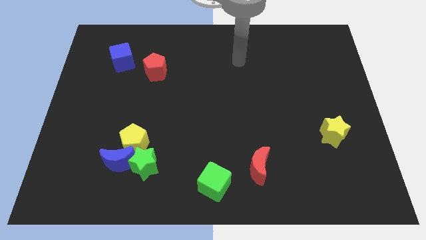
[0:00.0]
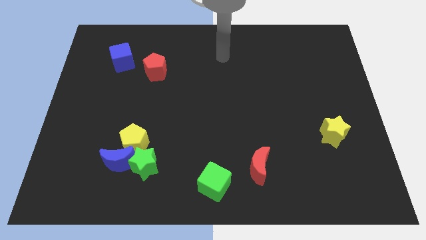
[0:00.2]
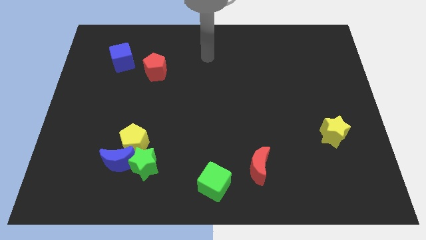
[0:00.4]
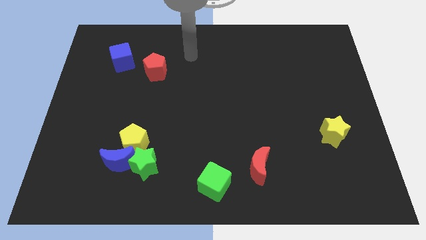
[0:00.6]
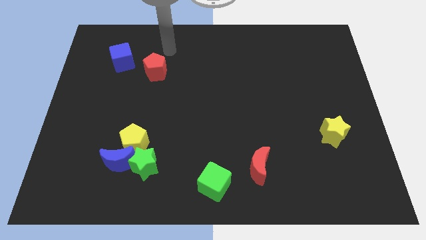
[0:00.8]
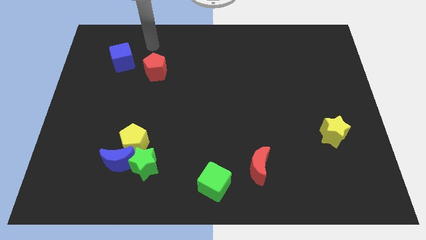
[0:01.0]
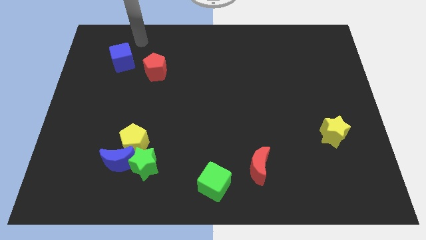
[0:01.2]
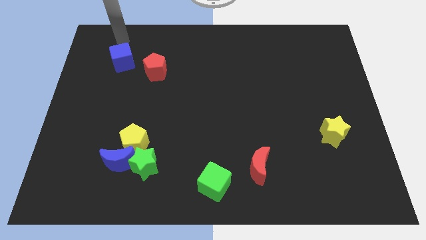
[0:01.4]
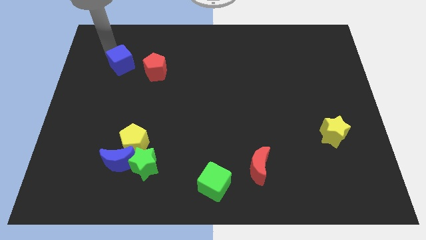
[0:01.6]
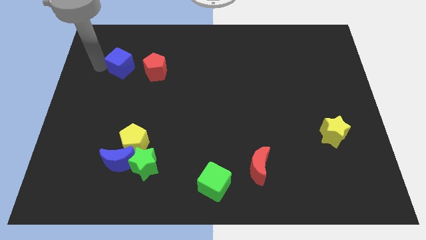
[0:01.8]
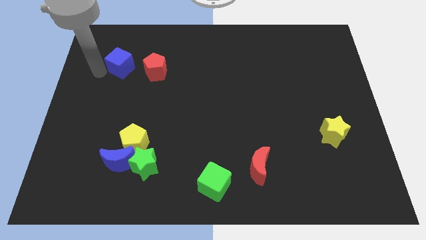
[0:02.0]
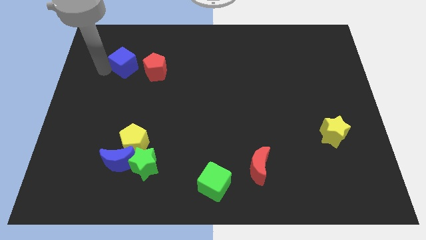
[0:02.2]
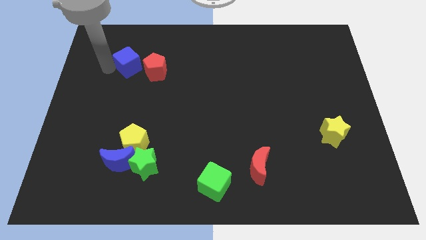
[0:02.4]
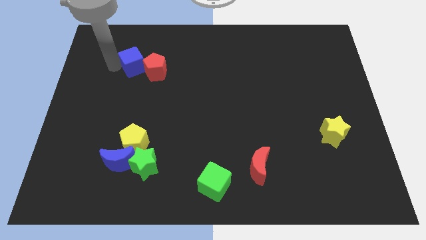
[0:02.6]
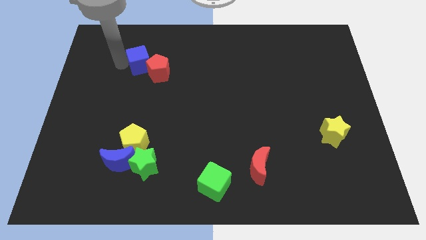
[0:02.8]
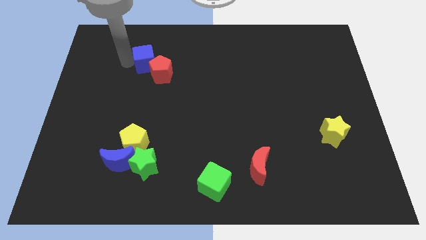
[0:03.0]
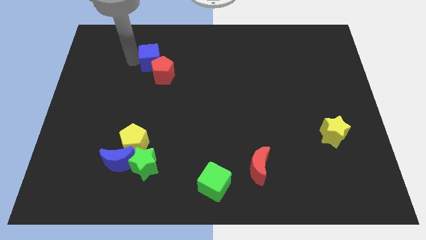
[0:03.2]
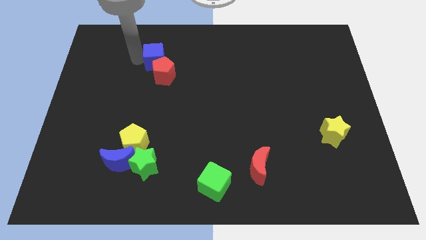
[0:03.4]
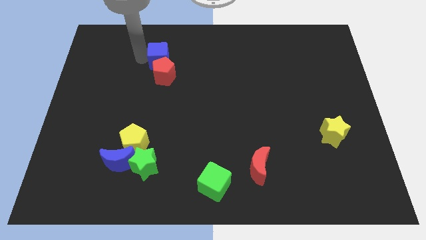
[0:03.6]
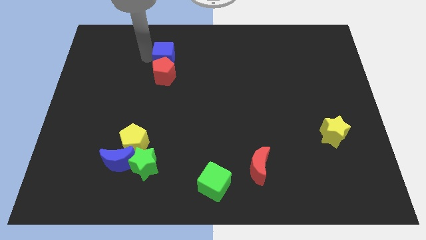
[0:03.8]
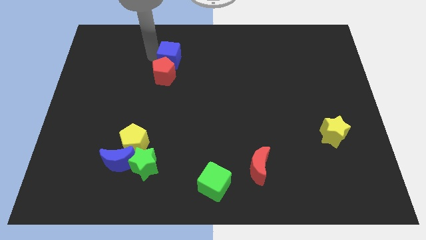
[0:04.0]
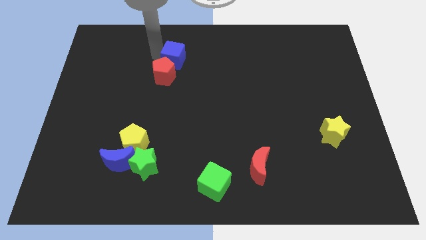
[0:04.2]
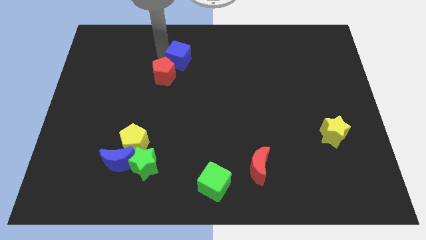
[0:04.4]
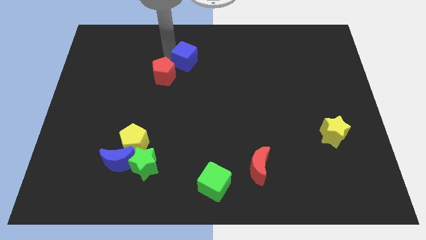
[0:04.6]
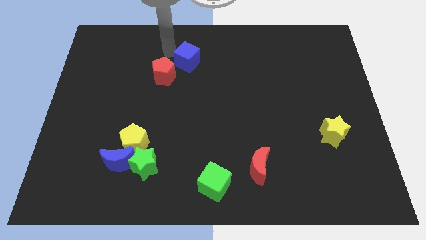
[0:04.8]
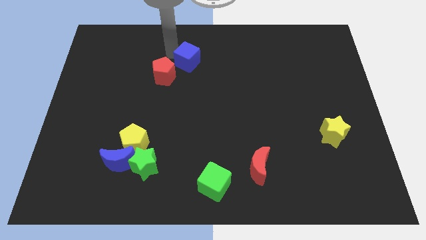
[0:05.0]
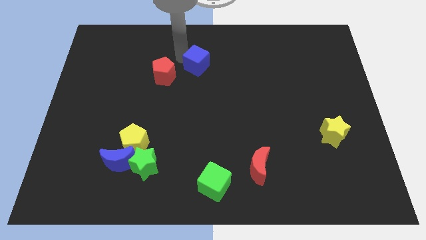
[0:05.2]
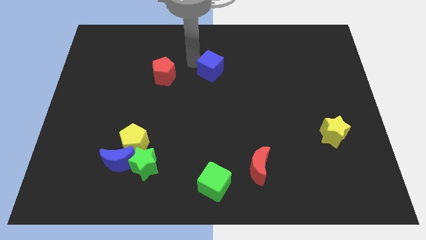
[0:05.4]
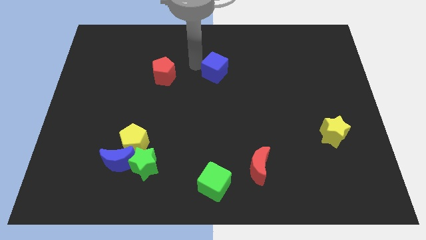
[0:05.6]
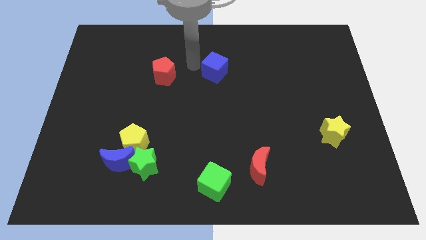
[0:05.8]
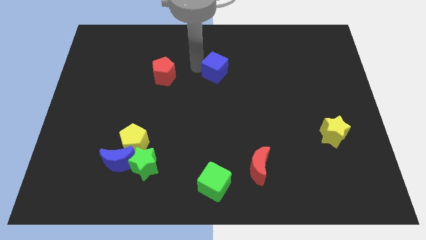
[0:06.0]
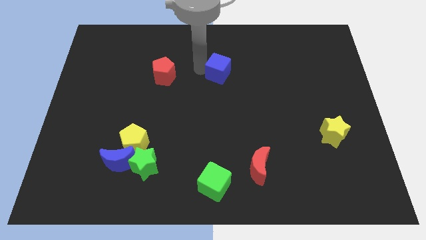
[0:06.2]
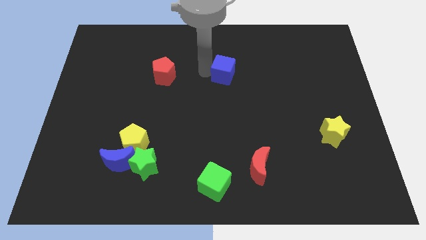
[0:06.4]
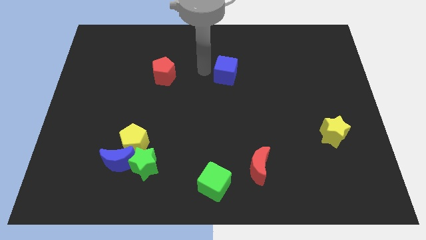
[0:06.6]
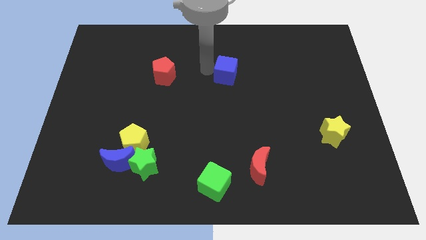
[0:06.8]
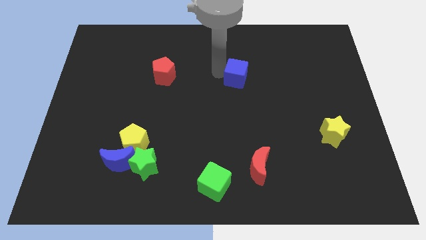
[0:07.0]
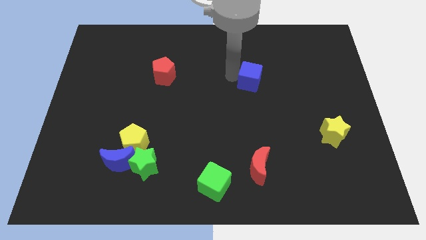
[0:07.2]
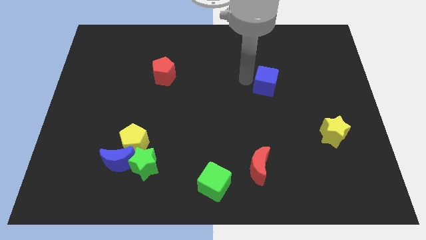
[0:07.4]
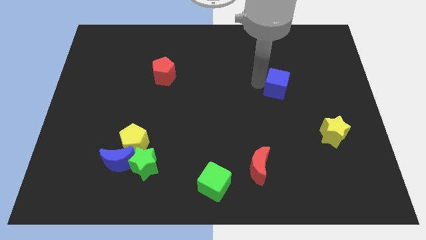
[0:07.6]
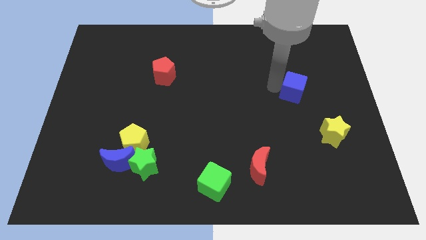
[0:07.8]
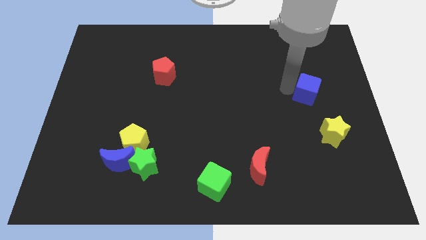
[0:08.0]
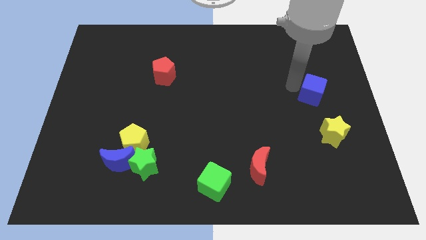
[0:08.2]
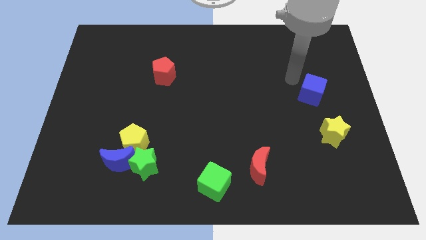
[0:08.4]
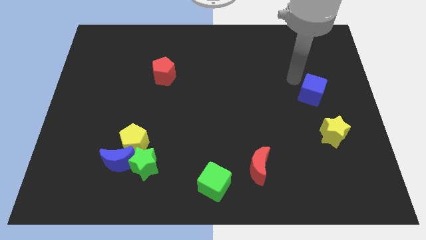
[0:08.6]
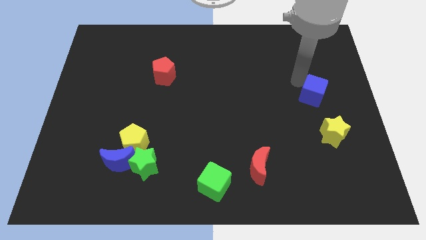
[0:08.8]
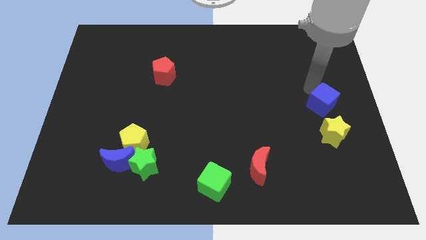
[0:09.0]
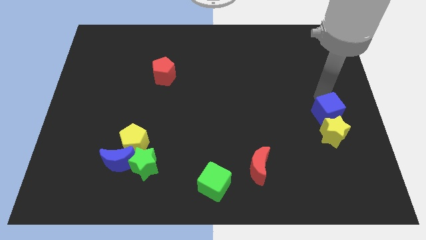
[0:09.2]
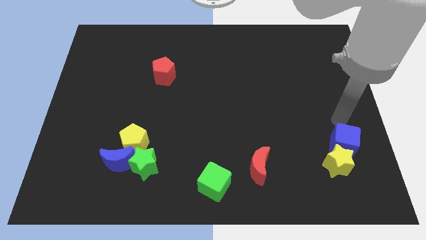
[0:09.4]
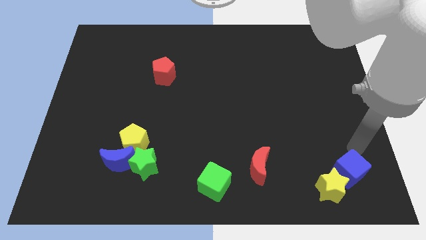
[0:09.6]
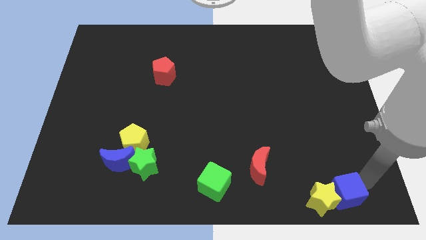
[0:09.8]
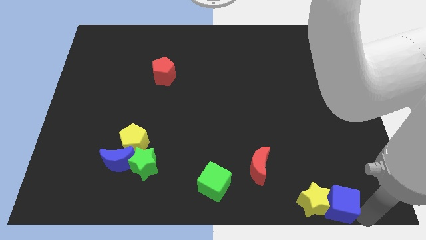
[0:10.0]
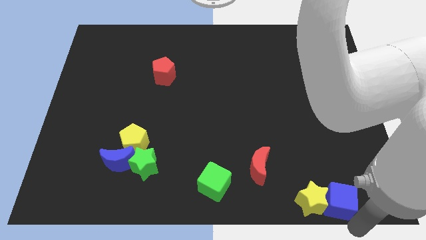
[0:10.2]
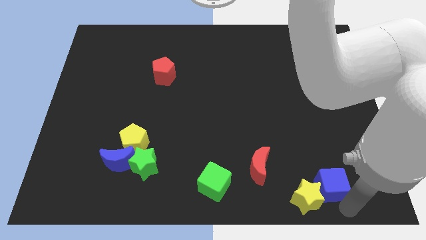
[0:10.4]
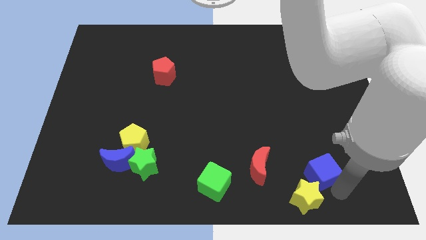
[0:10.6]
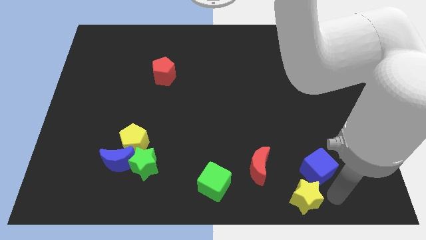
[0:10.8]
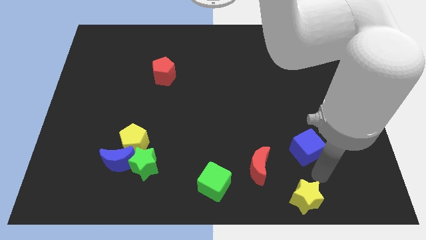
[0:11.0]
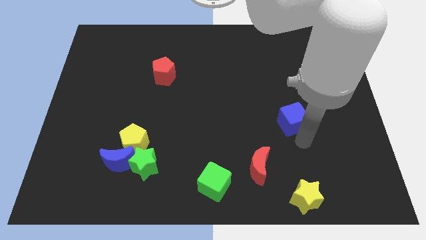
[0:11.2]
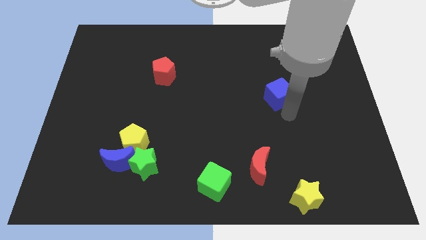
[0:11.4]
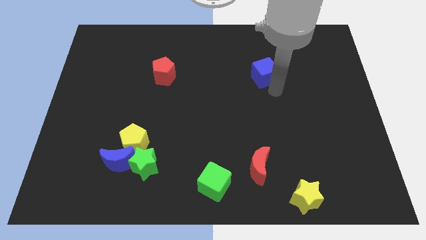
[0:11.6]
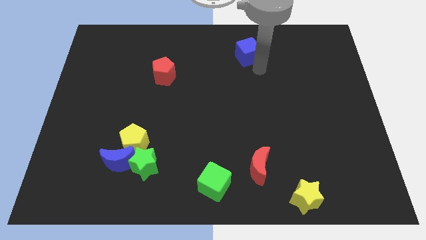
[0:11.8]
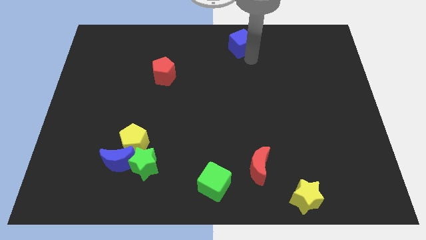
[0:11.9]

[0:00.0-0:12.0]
move the blue cube to the top side

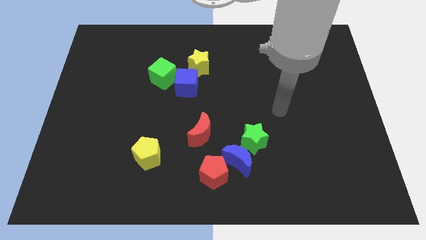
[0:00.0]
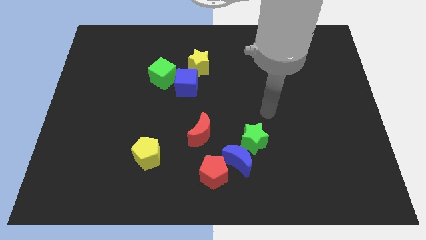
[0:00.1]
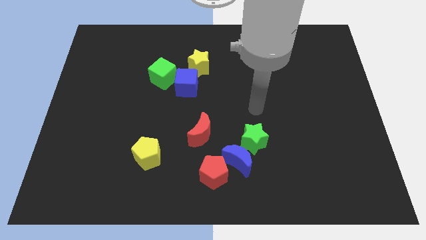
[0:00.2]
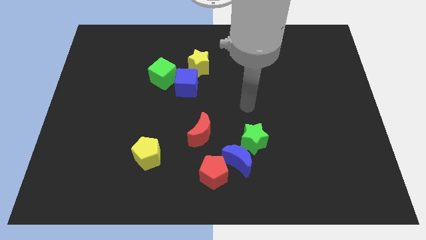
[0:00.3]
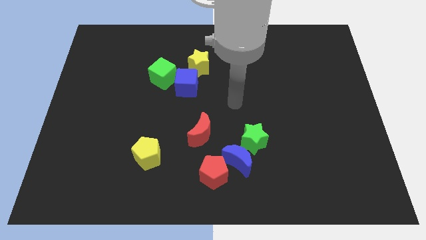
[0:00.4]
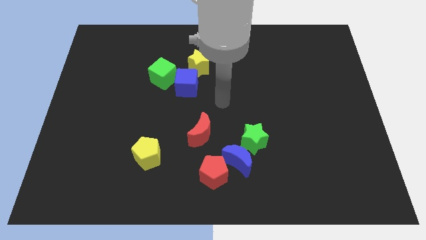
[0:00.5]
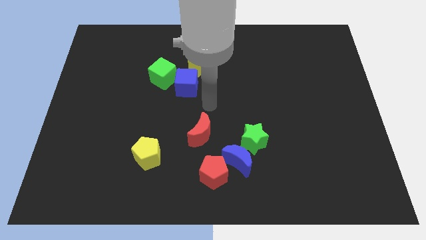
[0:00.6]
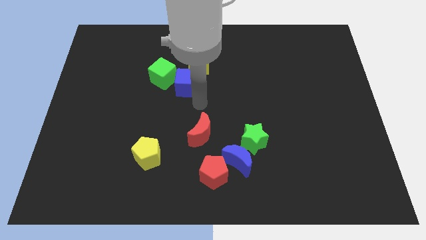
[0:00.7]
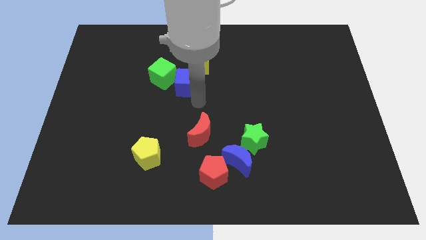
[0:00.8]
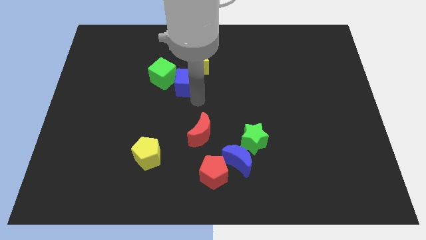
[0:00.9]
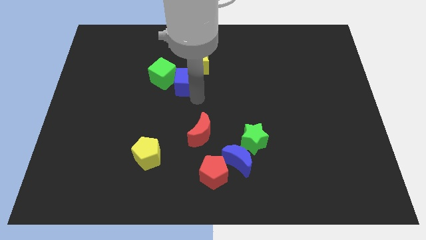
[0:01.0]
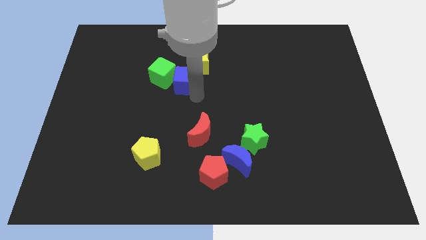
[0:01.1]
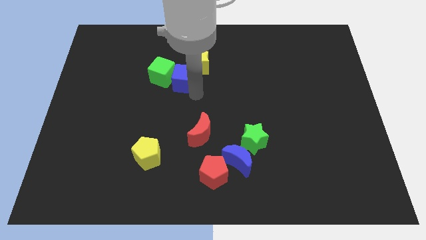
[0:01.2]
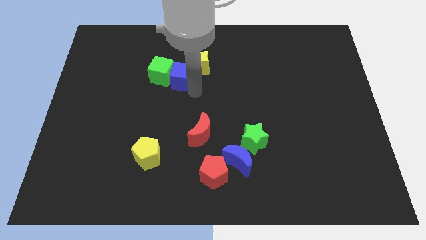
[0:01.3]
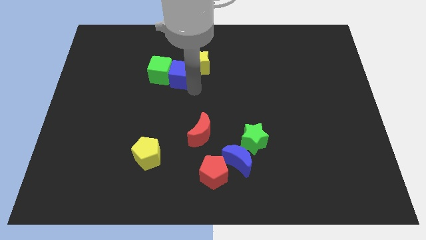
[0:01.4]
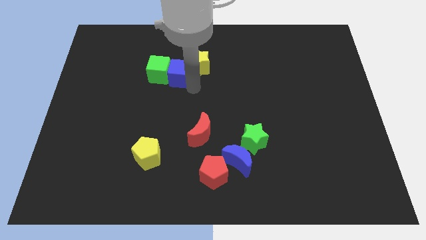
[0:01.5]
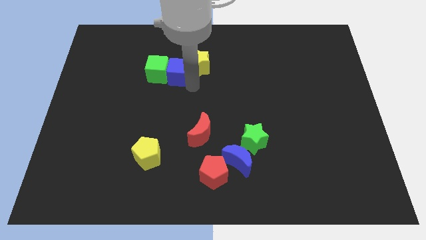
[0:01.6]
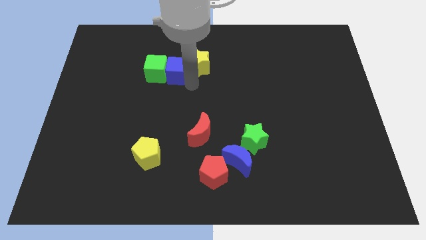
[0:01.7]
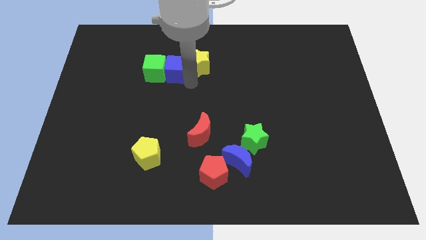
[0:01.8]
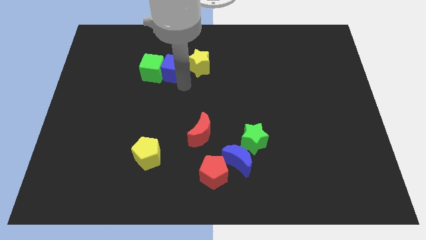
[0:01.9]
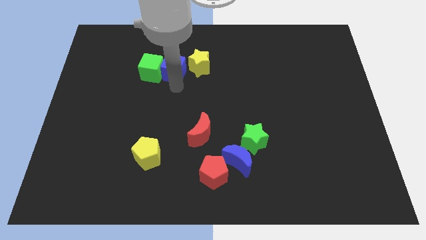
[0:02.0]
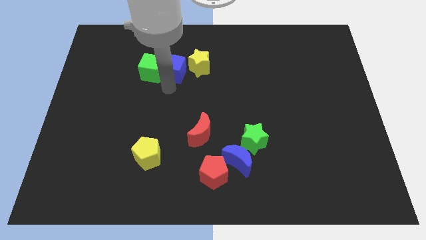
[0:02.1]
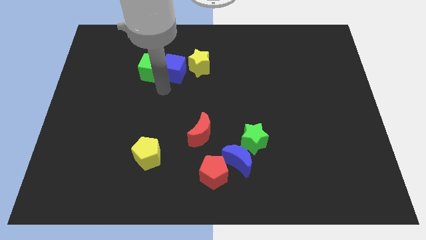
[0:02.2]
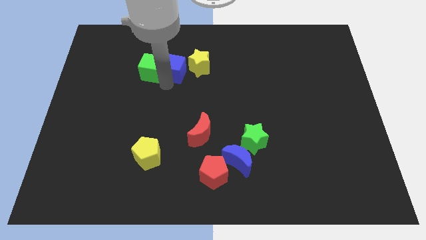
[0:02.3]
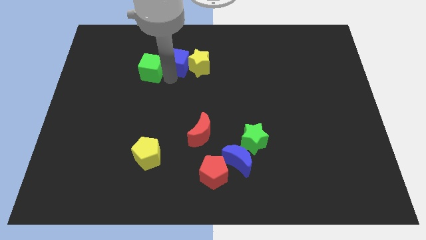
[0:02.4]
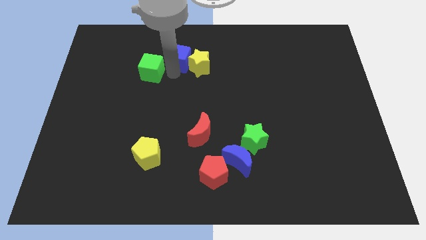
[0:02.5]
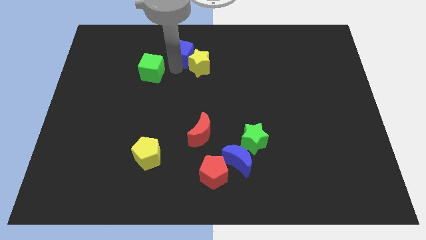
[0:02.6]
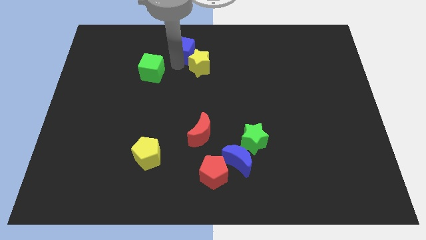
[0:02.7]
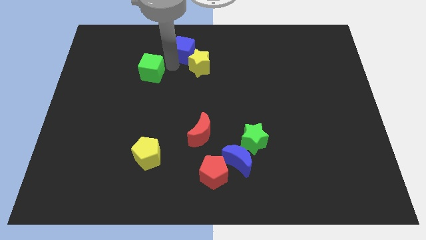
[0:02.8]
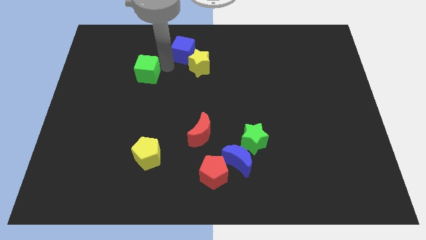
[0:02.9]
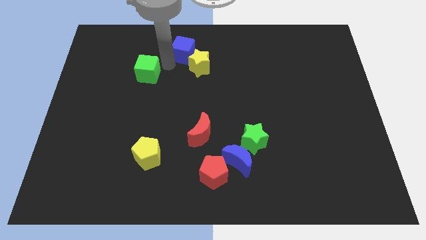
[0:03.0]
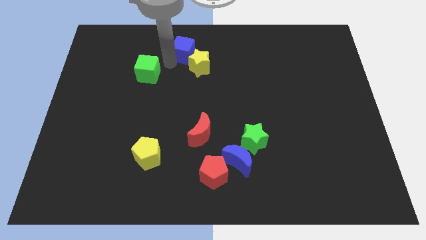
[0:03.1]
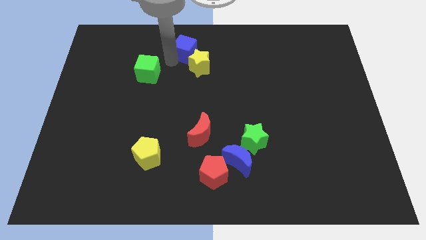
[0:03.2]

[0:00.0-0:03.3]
slide the blue cube to the towards your base
